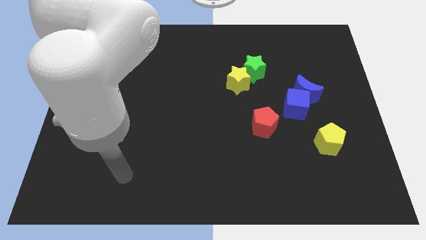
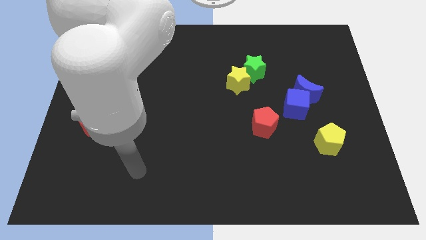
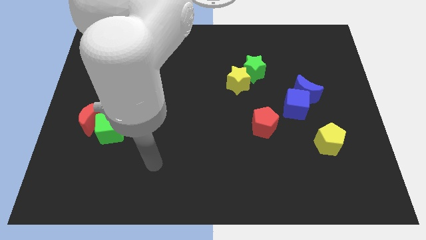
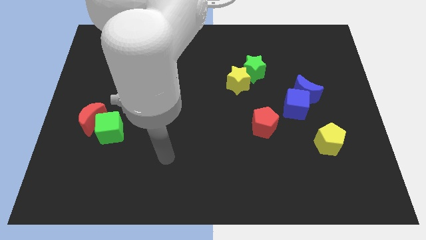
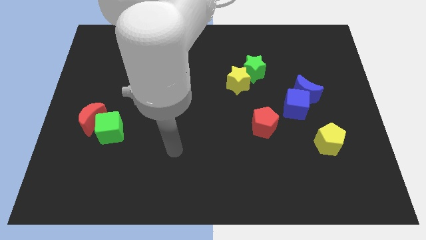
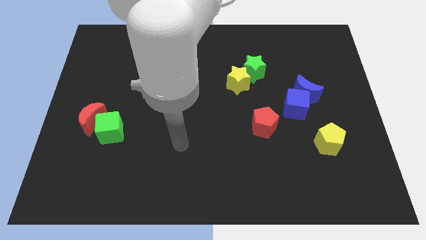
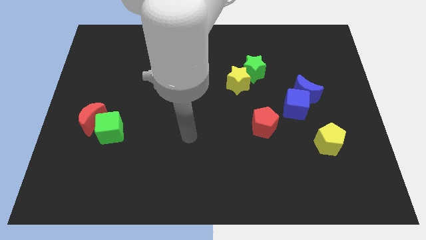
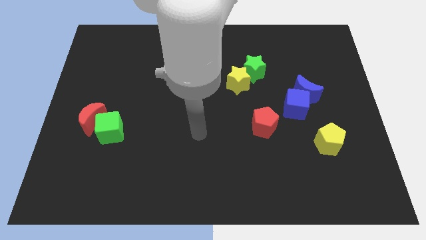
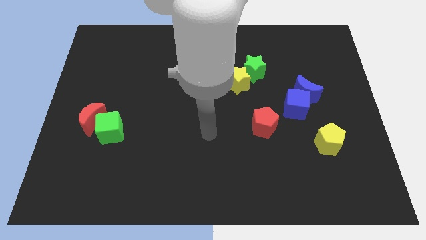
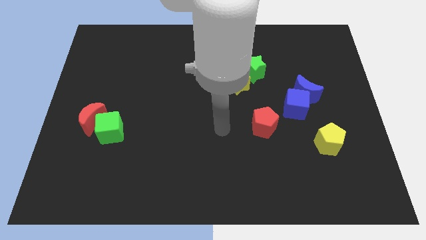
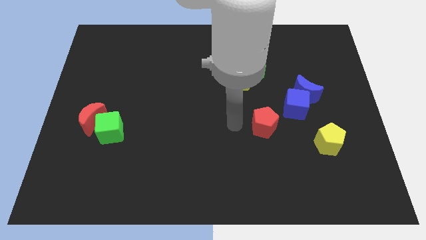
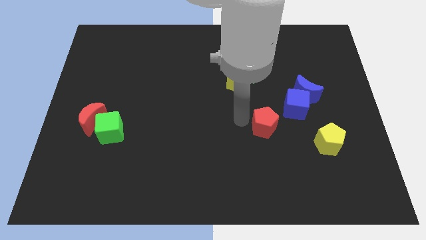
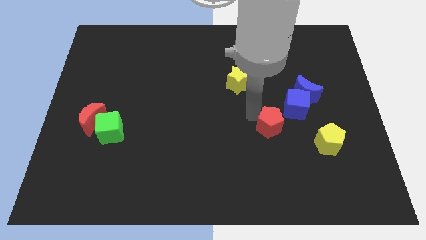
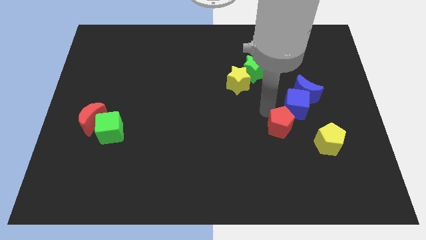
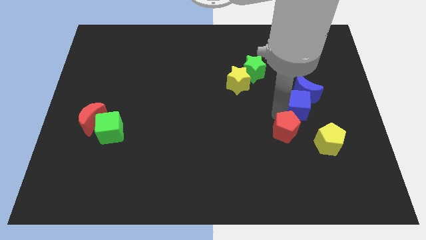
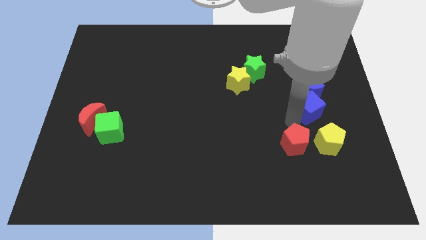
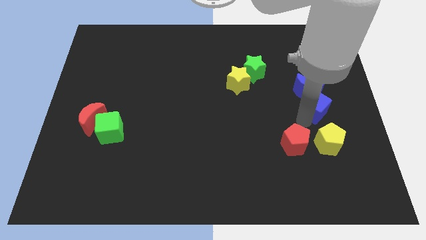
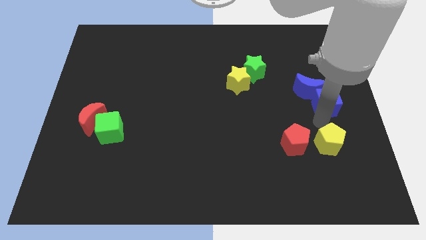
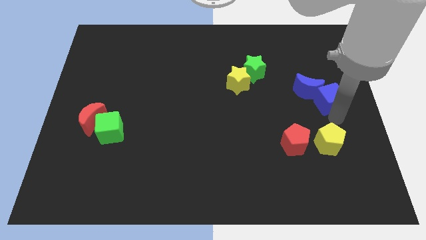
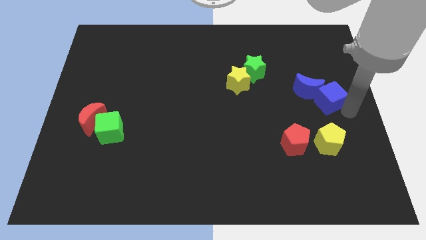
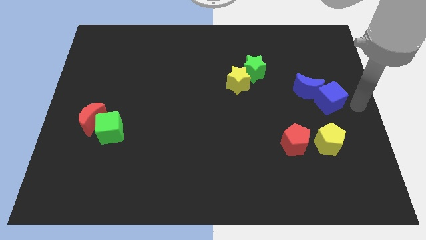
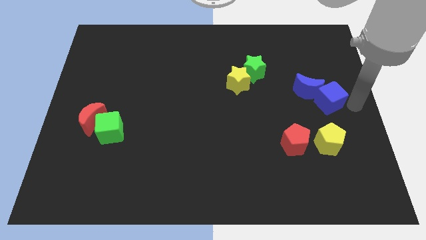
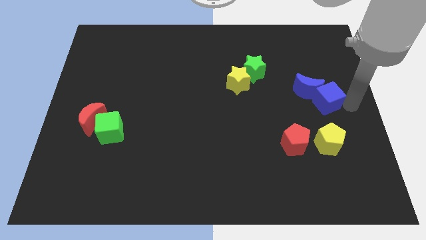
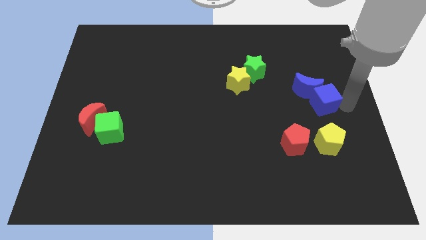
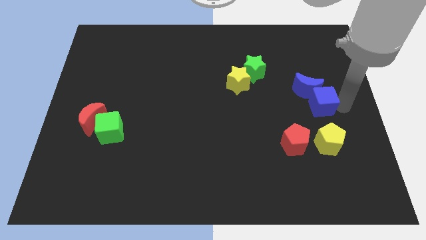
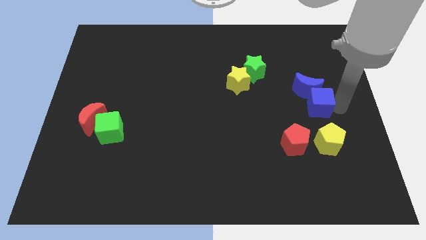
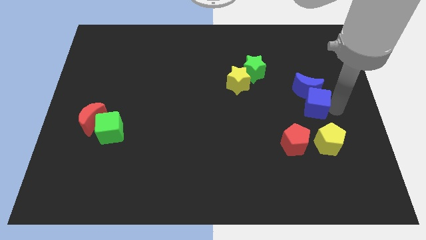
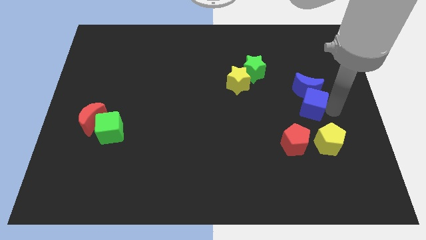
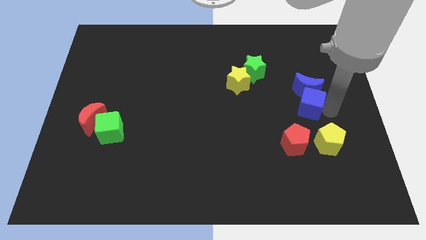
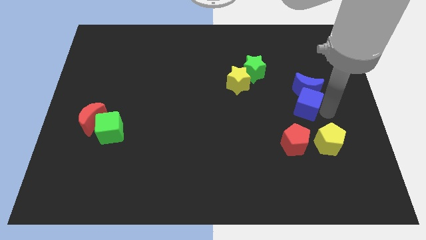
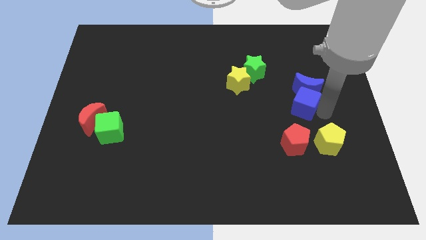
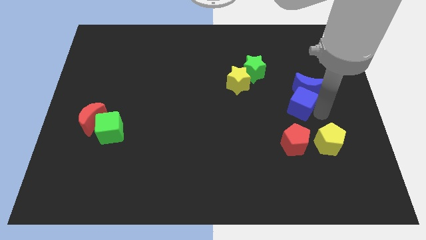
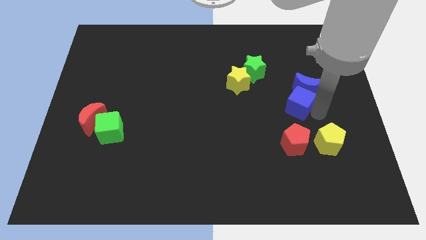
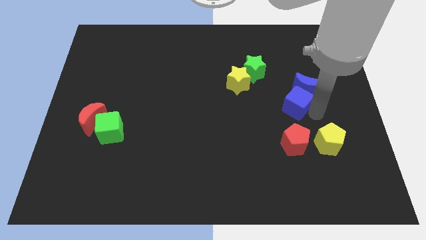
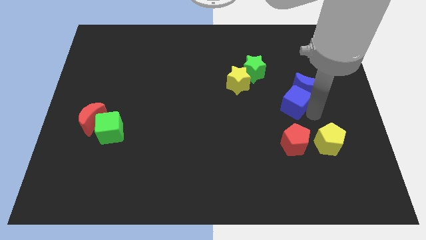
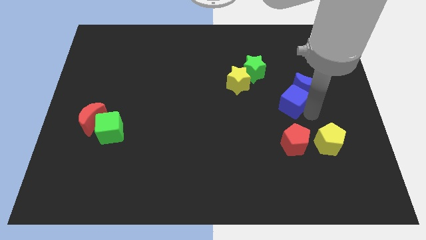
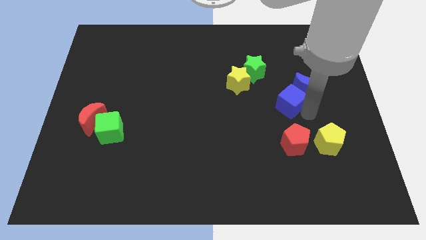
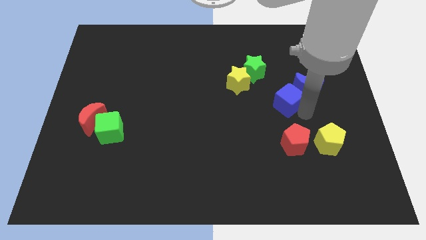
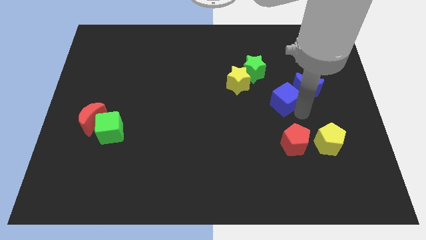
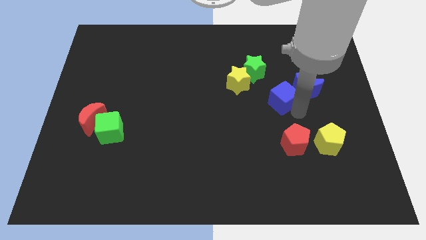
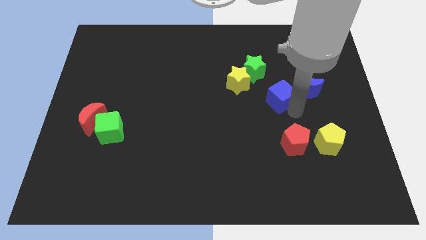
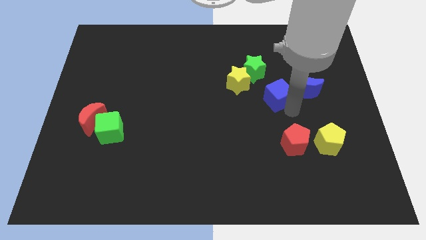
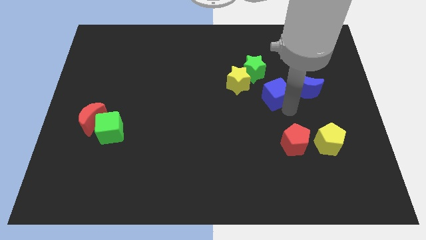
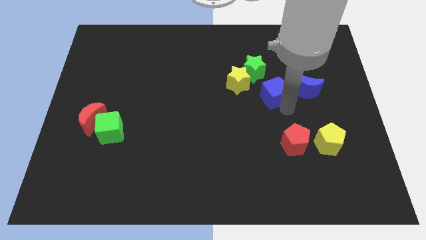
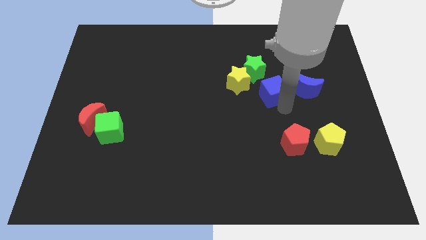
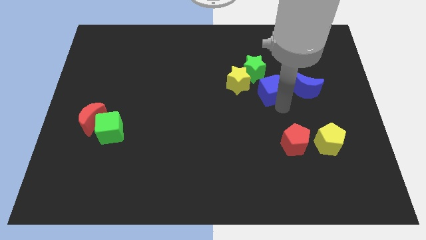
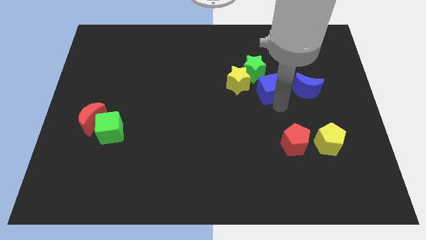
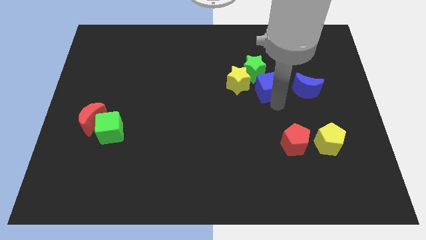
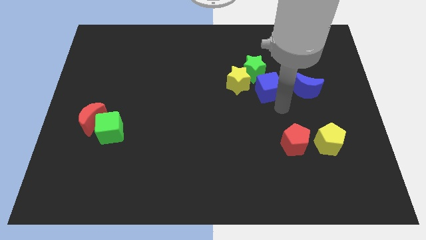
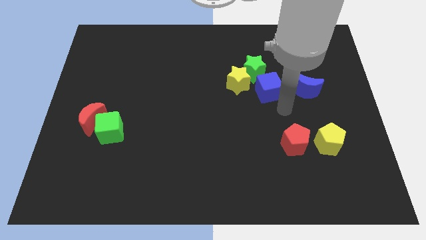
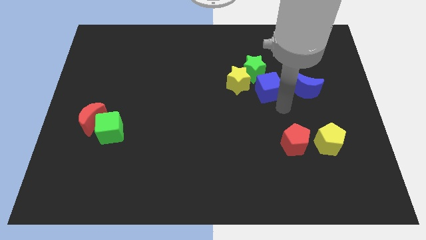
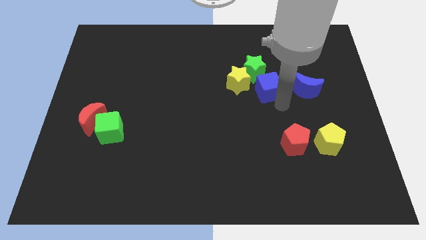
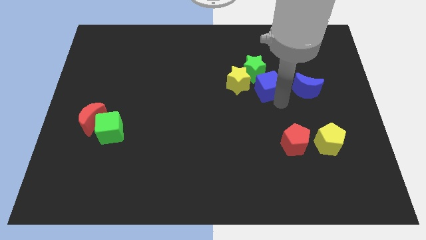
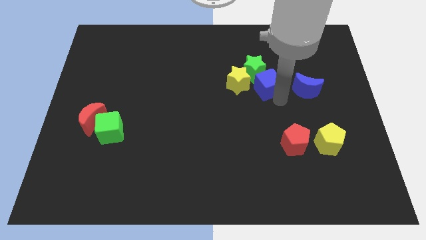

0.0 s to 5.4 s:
slide the blue cube close to the green star

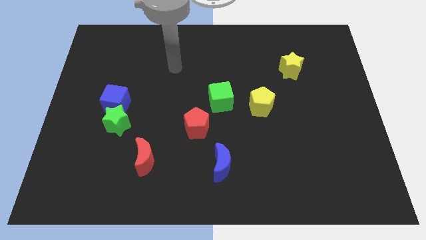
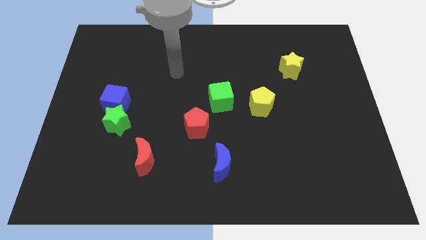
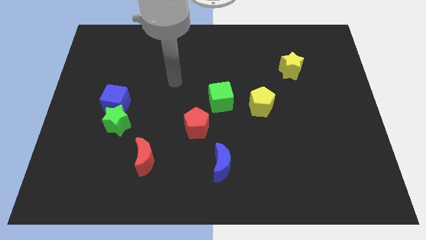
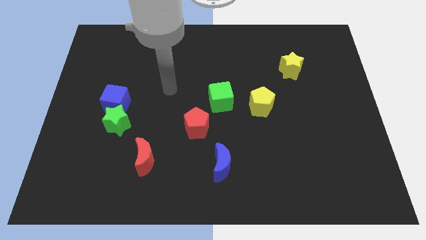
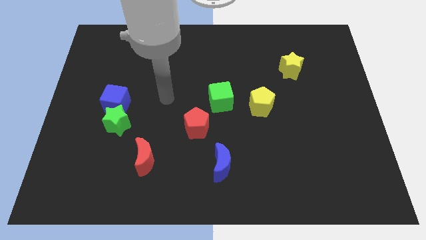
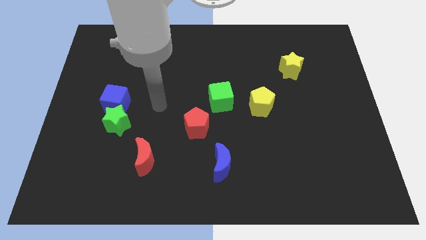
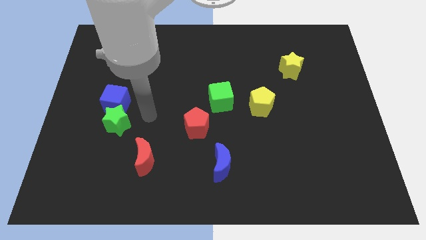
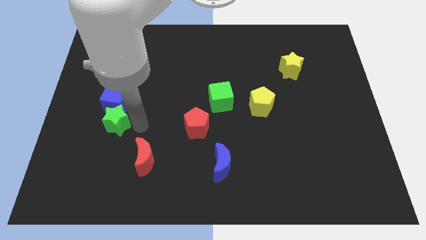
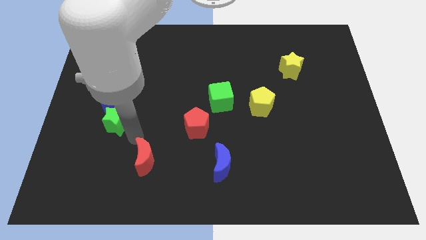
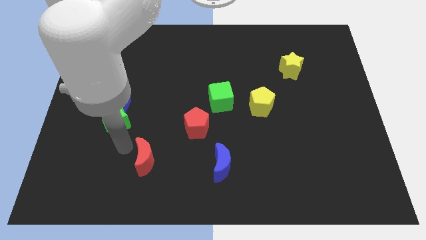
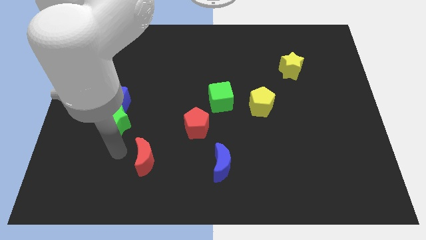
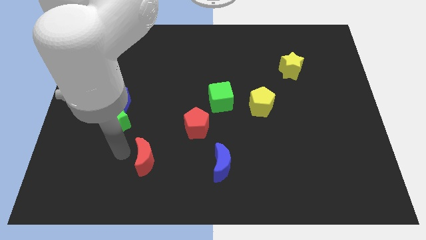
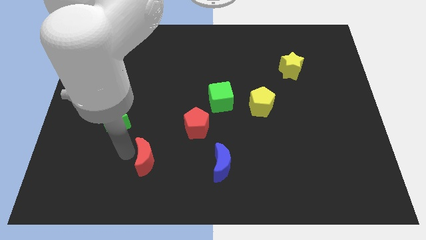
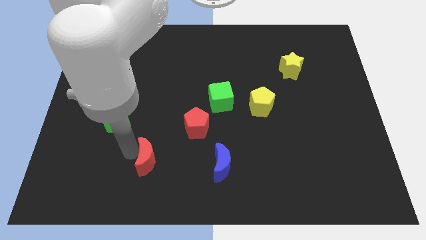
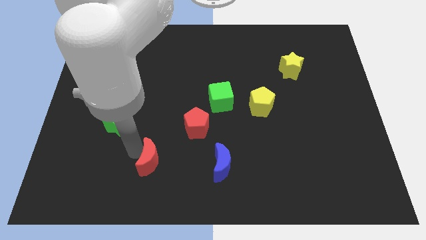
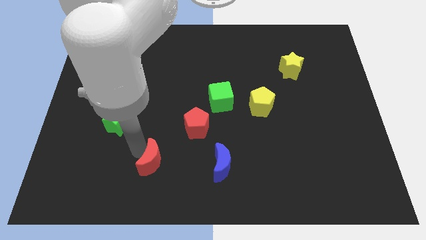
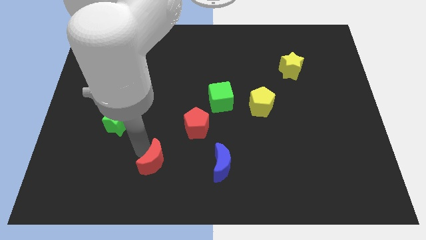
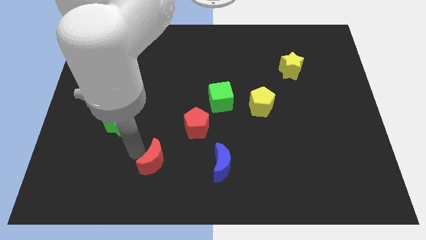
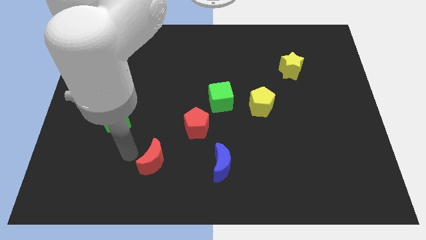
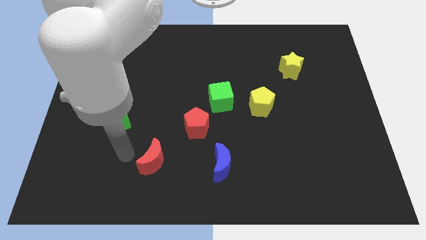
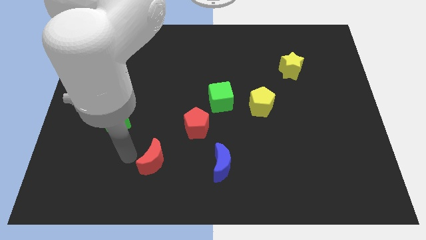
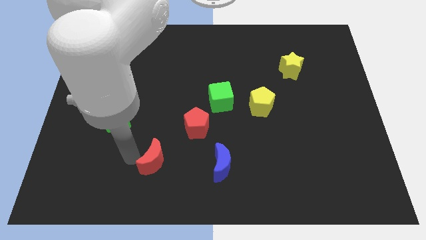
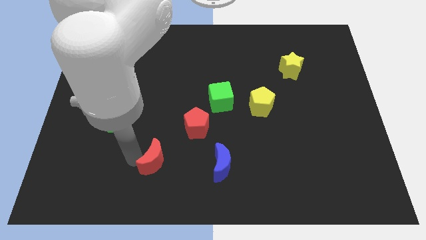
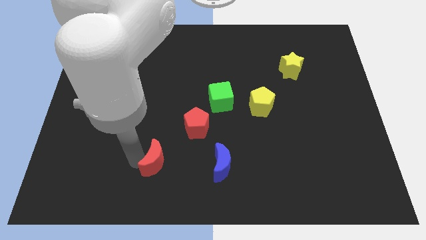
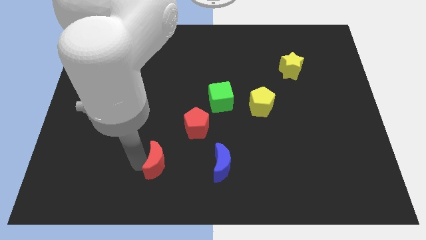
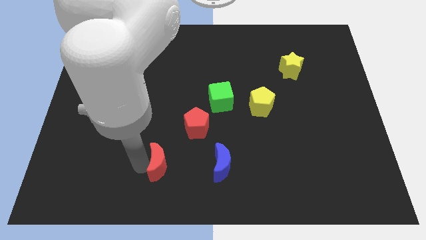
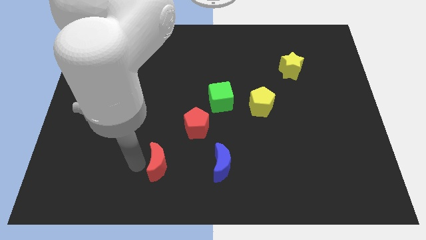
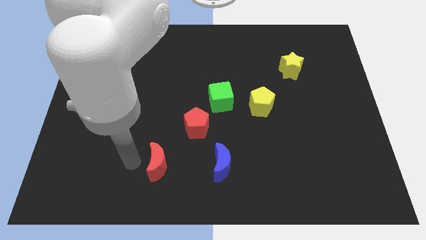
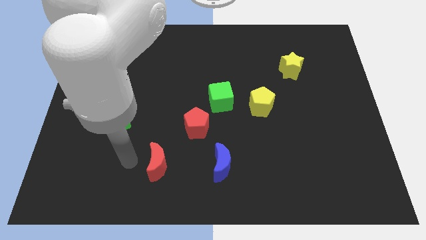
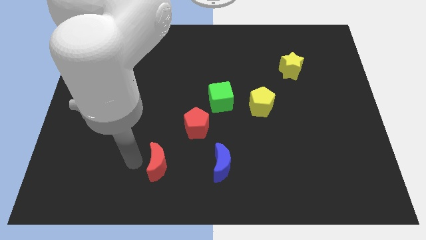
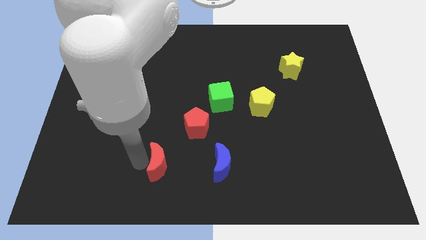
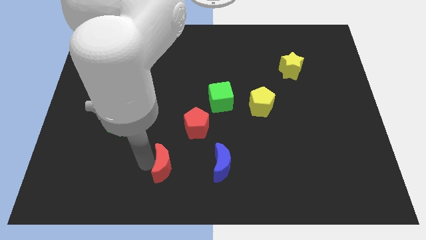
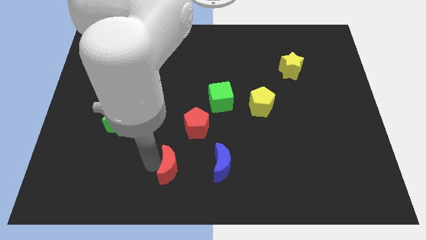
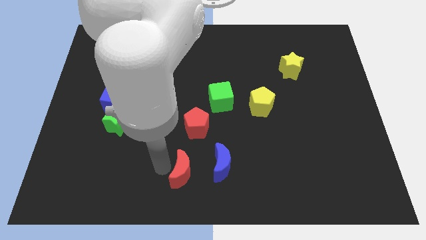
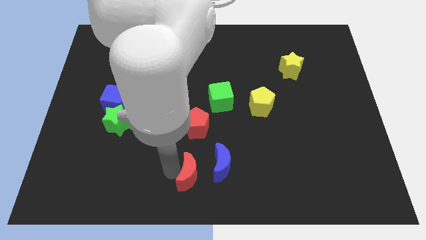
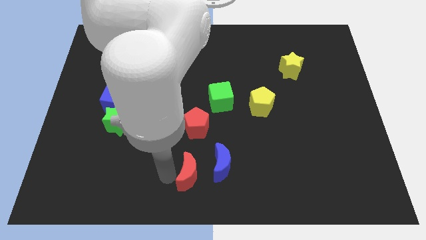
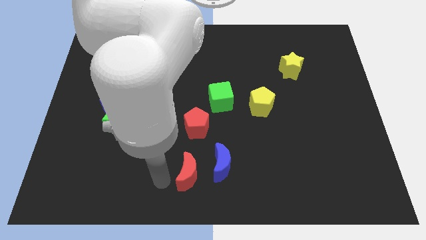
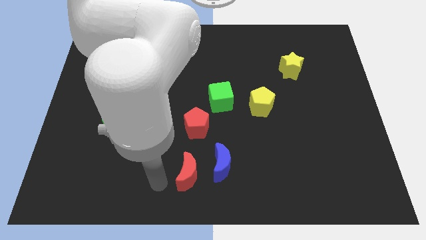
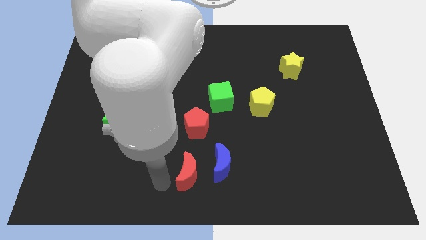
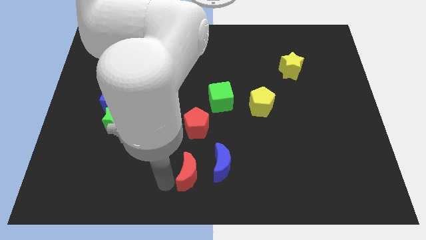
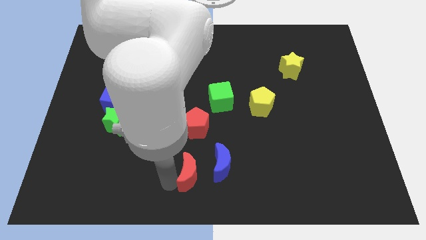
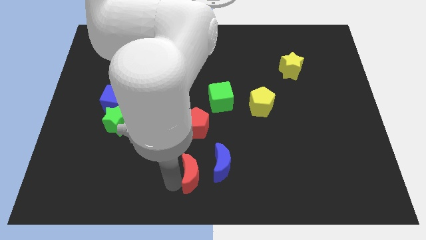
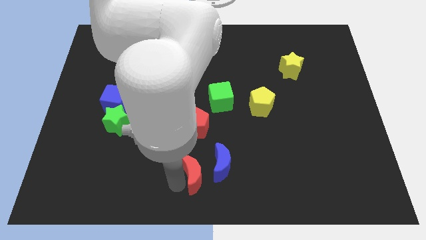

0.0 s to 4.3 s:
put the red moon next to the blue moon
